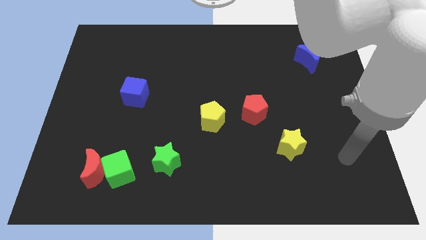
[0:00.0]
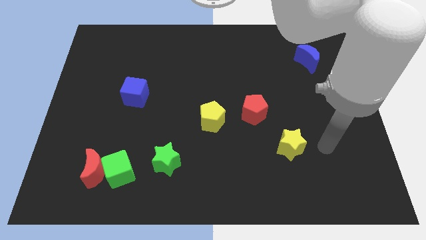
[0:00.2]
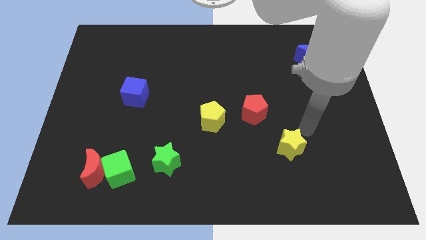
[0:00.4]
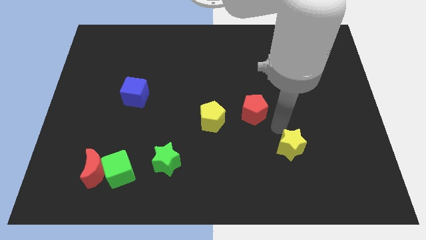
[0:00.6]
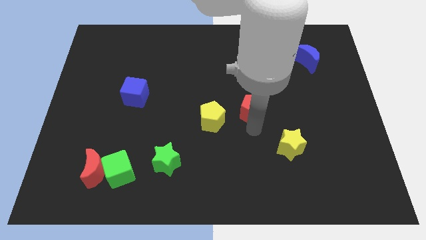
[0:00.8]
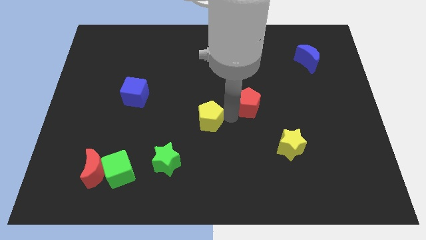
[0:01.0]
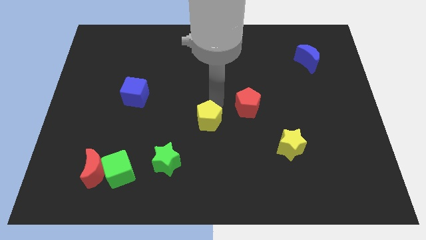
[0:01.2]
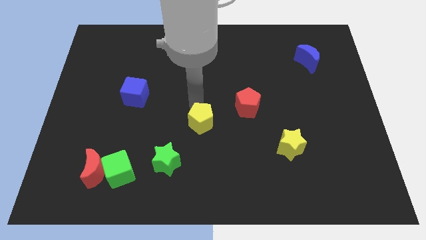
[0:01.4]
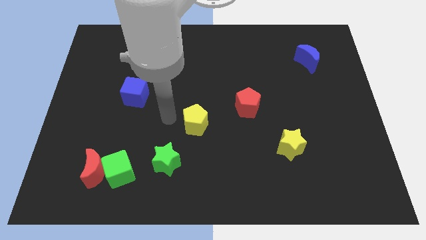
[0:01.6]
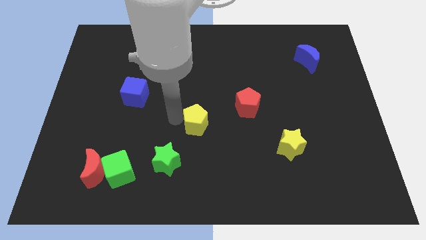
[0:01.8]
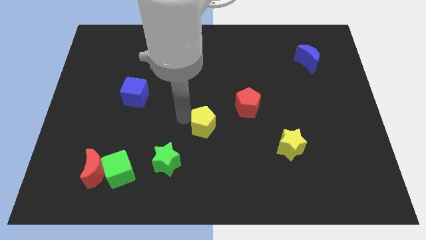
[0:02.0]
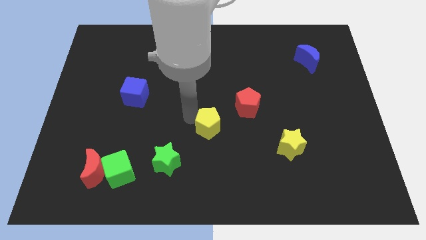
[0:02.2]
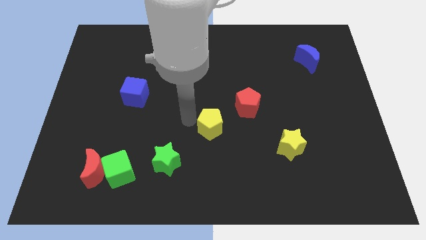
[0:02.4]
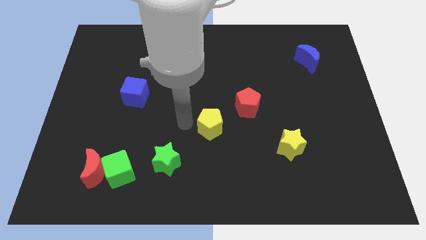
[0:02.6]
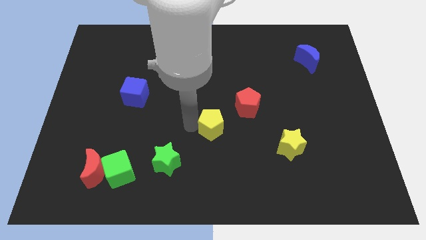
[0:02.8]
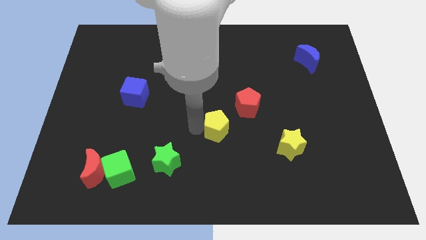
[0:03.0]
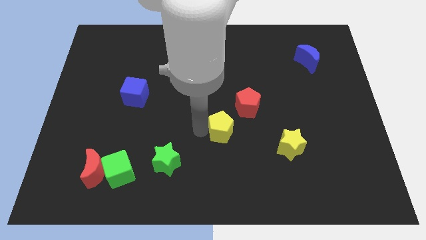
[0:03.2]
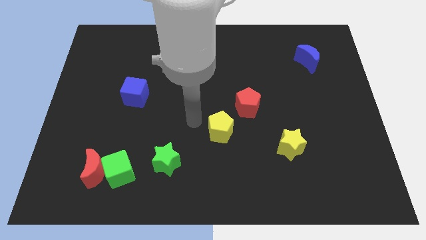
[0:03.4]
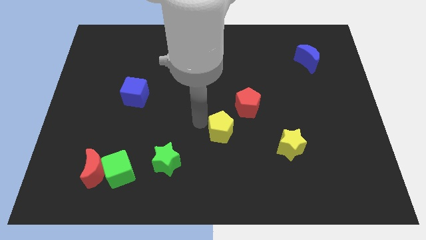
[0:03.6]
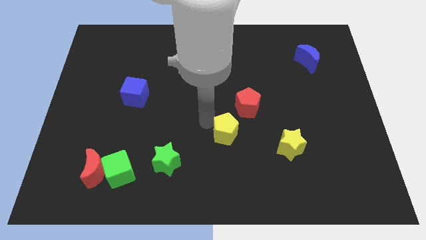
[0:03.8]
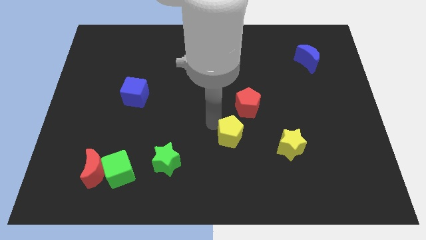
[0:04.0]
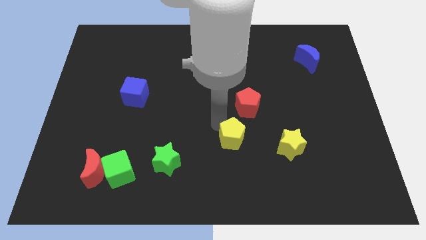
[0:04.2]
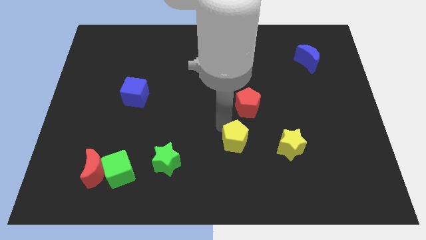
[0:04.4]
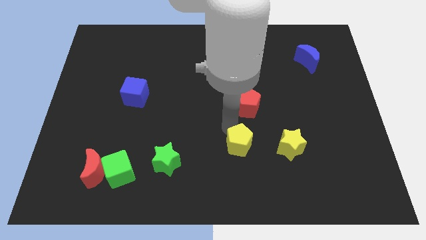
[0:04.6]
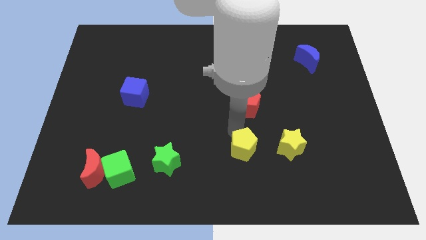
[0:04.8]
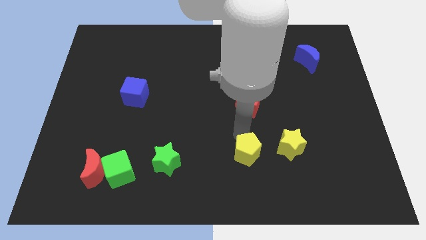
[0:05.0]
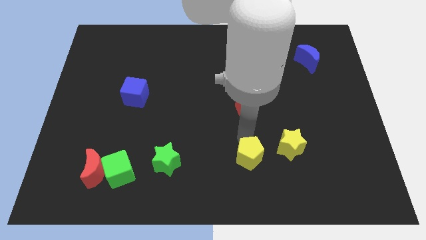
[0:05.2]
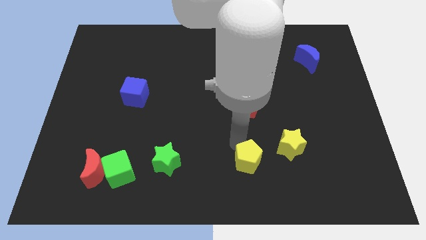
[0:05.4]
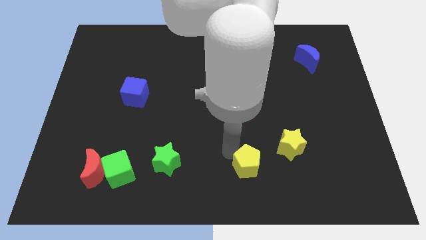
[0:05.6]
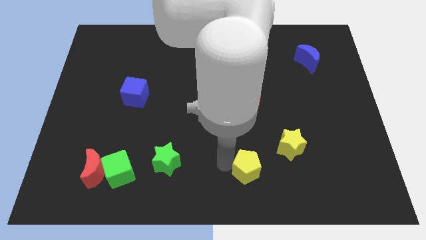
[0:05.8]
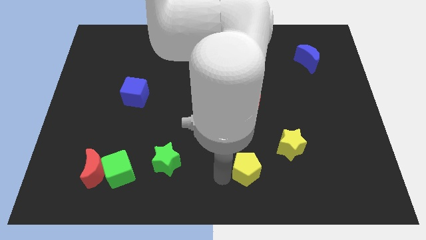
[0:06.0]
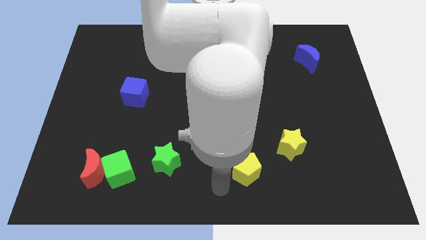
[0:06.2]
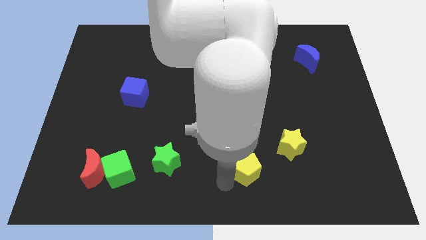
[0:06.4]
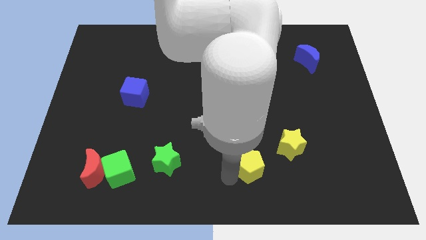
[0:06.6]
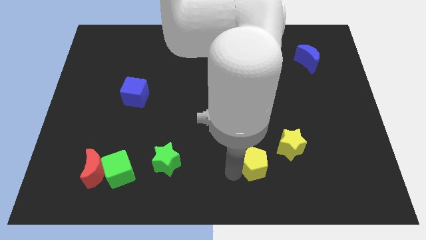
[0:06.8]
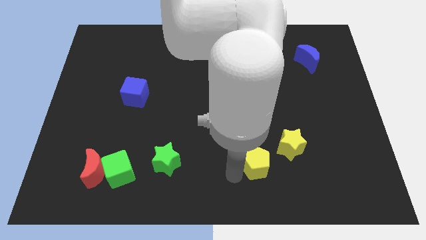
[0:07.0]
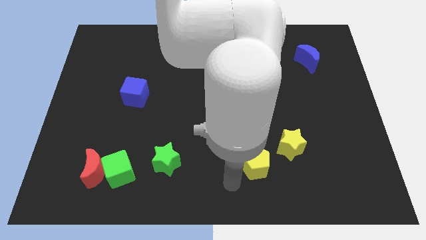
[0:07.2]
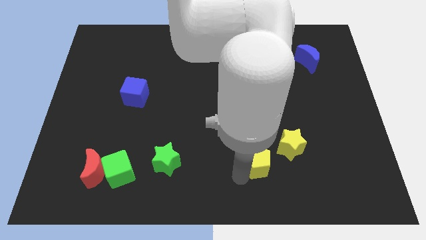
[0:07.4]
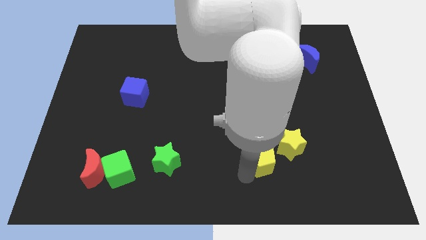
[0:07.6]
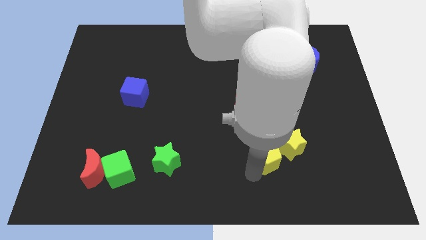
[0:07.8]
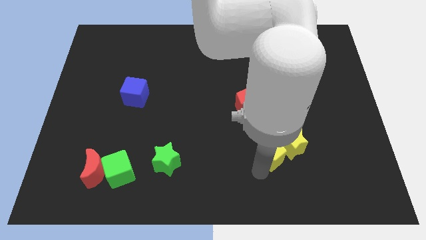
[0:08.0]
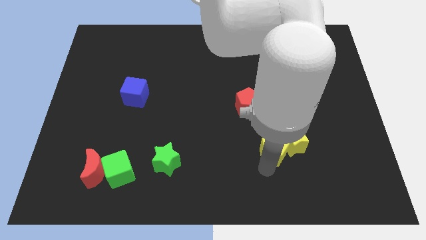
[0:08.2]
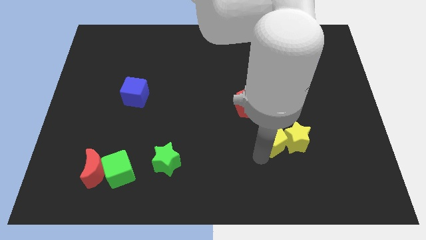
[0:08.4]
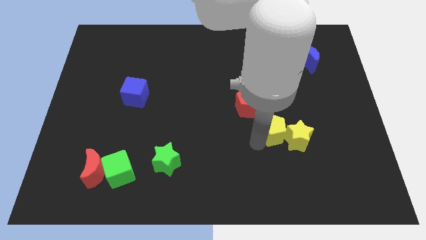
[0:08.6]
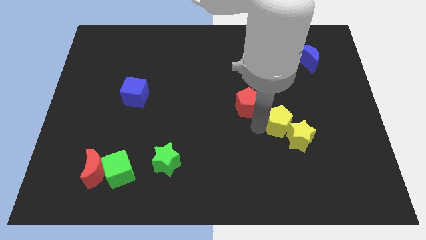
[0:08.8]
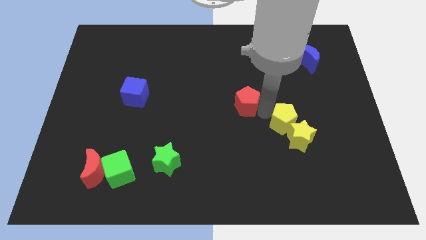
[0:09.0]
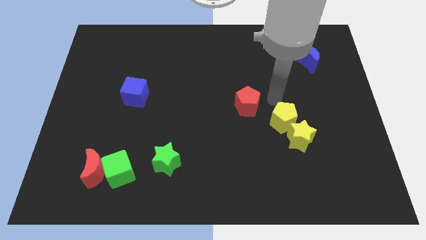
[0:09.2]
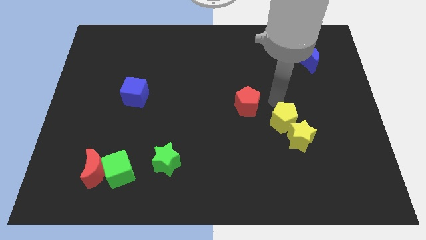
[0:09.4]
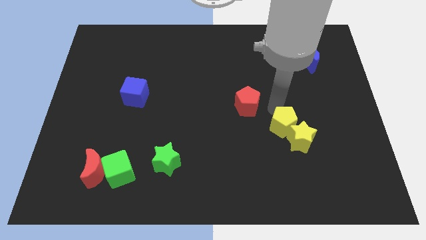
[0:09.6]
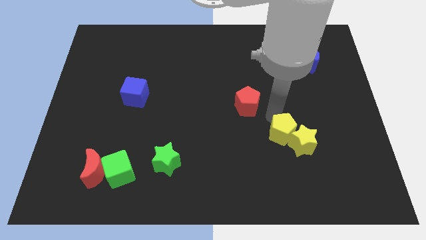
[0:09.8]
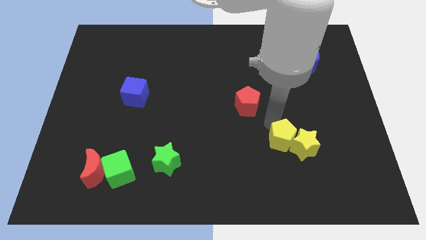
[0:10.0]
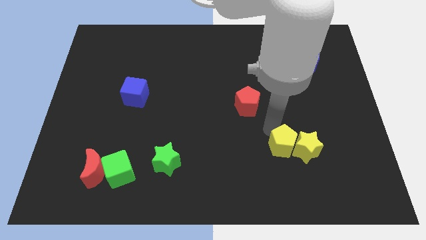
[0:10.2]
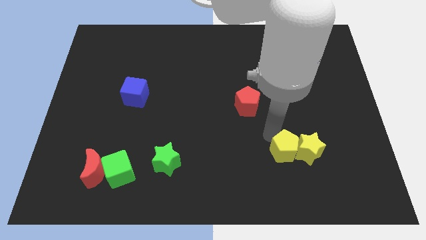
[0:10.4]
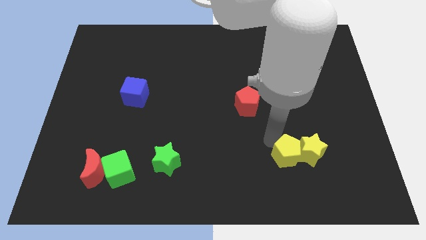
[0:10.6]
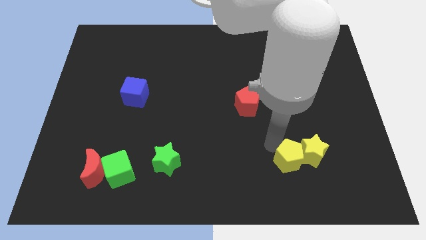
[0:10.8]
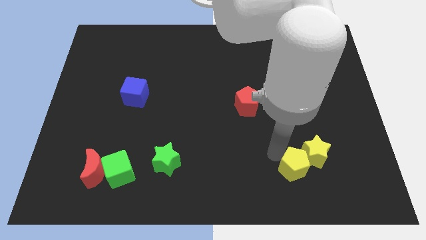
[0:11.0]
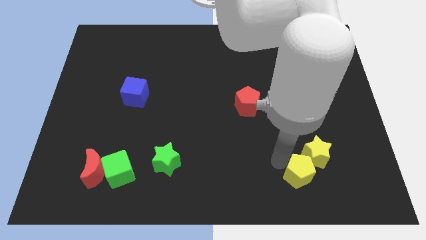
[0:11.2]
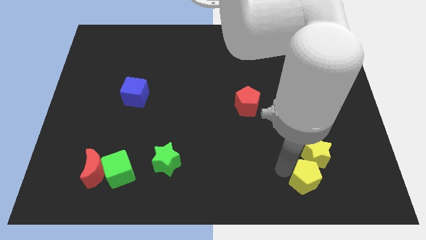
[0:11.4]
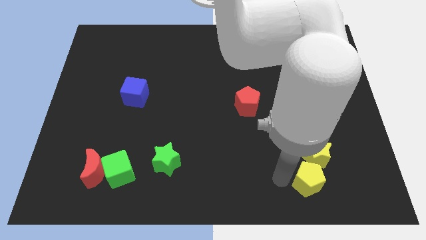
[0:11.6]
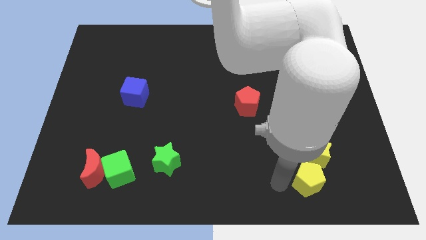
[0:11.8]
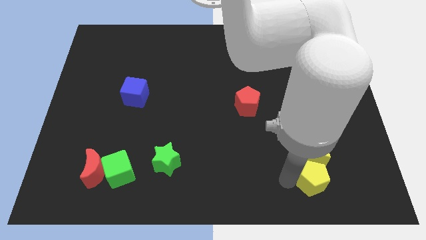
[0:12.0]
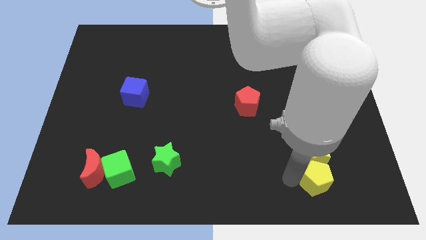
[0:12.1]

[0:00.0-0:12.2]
move the yellow pentagon to the bottom right of the yellow star

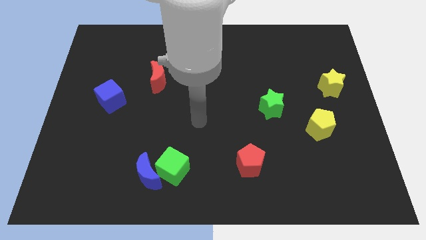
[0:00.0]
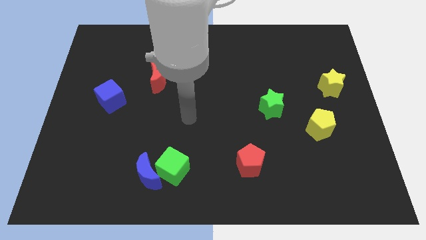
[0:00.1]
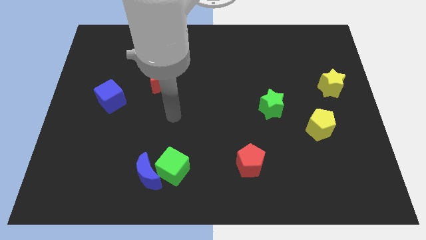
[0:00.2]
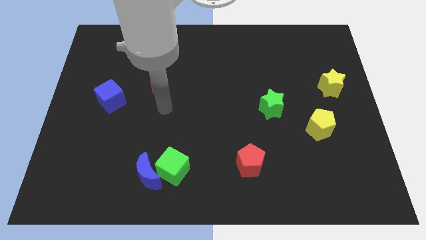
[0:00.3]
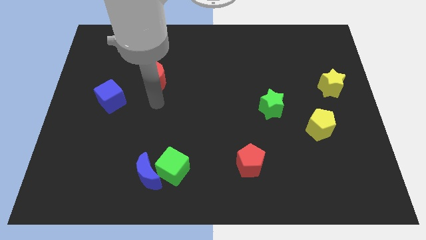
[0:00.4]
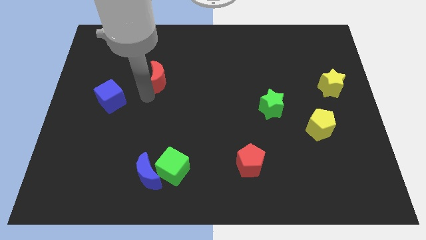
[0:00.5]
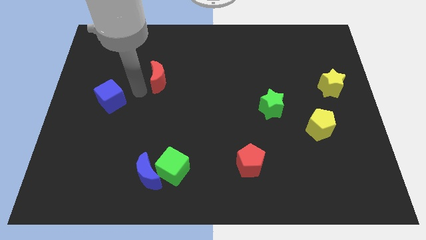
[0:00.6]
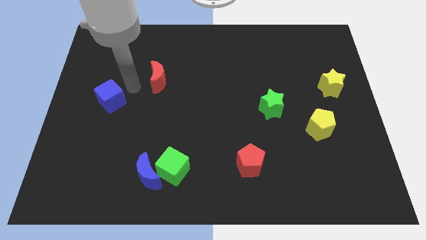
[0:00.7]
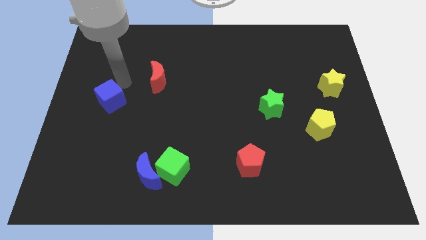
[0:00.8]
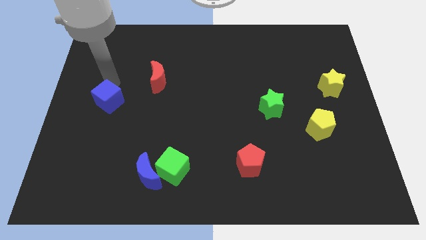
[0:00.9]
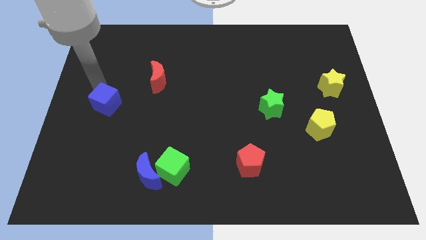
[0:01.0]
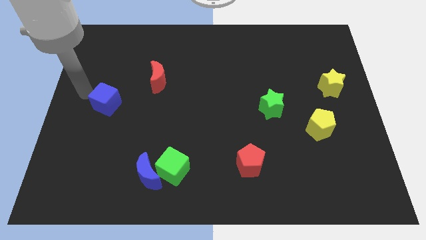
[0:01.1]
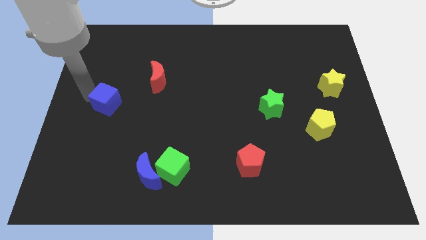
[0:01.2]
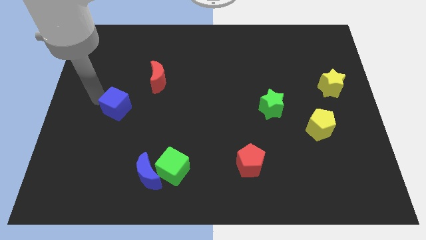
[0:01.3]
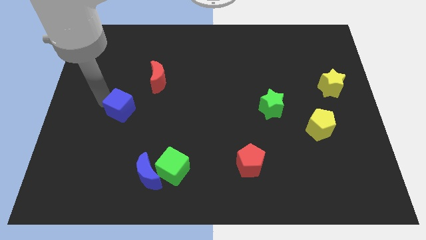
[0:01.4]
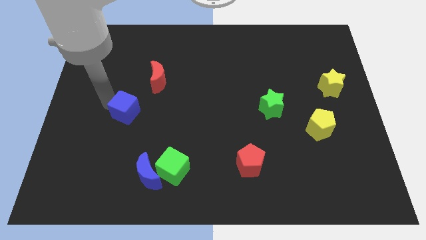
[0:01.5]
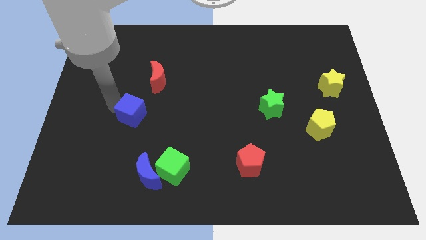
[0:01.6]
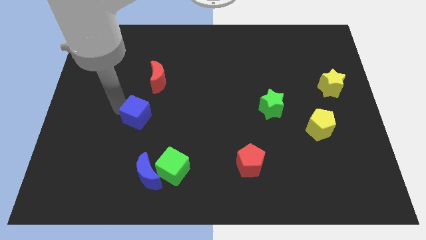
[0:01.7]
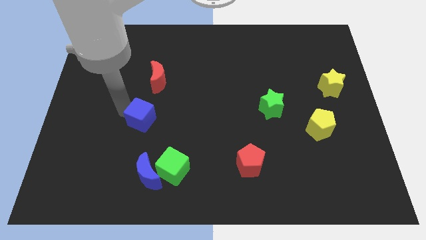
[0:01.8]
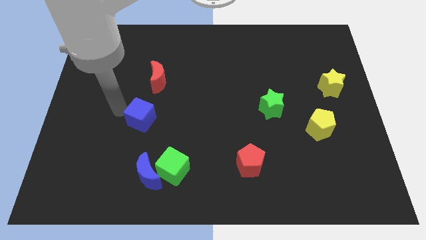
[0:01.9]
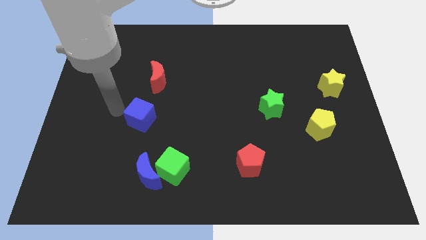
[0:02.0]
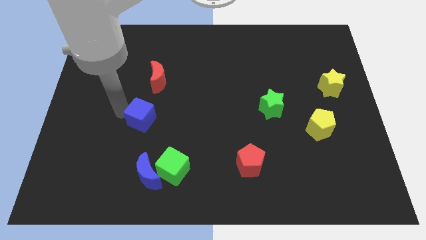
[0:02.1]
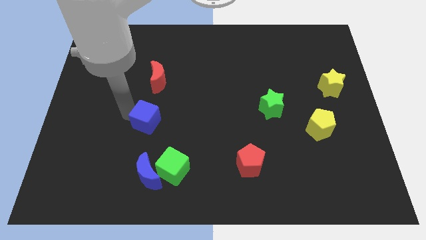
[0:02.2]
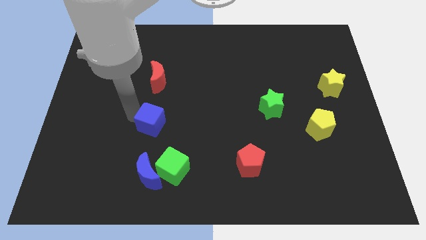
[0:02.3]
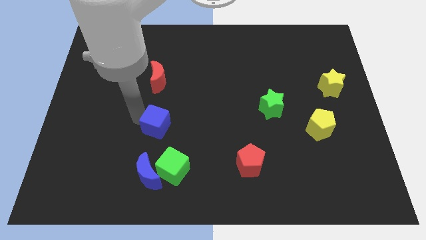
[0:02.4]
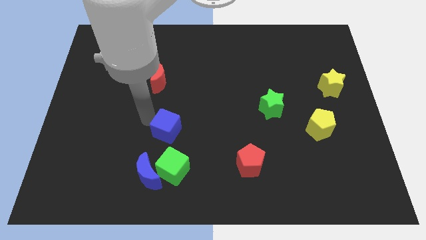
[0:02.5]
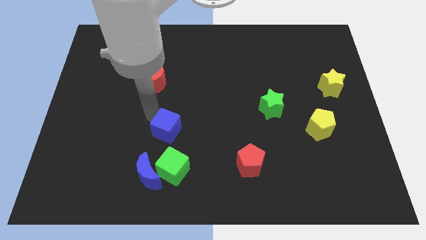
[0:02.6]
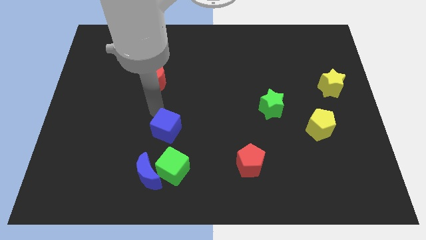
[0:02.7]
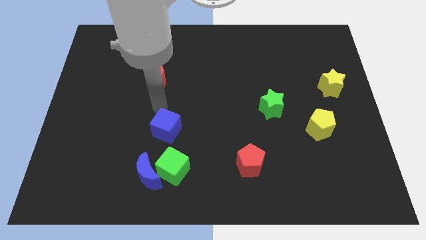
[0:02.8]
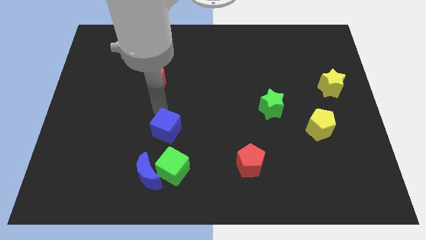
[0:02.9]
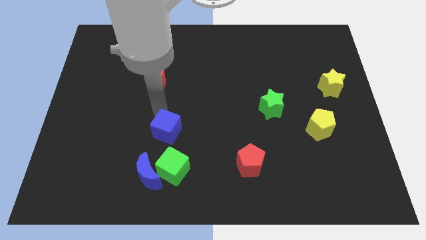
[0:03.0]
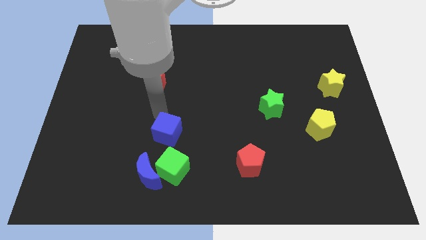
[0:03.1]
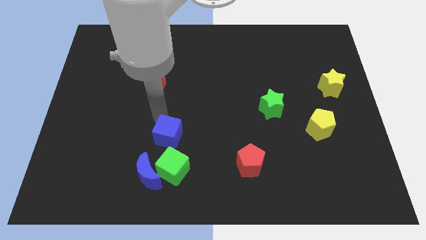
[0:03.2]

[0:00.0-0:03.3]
put the blue cube to the top right side of the blue moon
